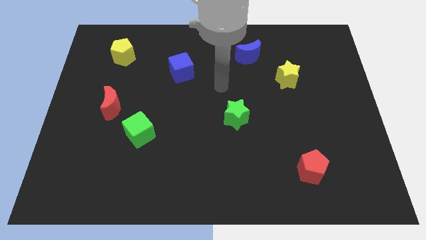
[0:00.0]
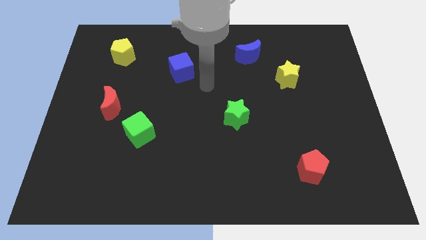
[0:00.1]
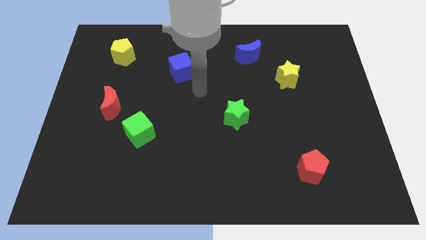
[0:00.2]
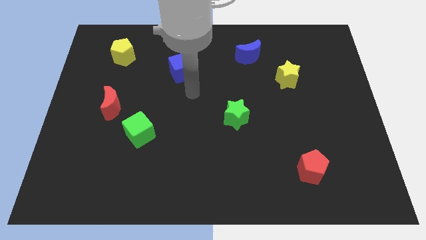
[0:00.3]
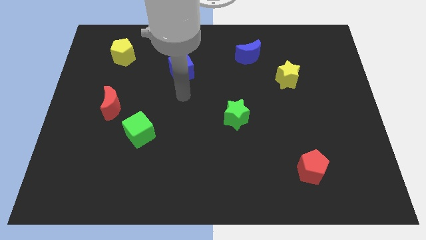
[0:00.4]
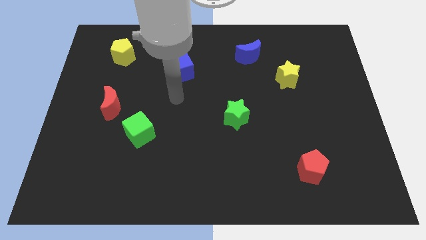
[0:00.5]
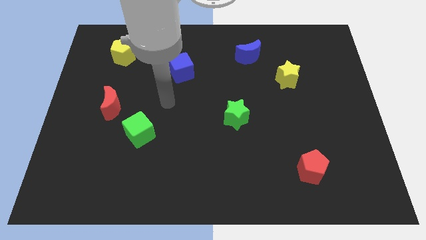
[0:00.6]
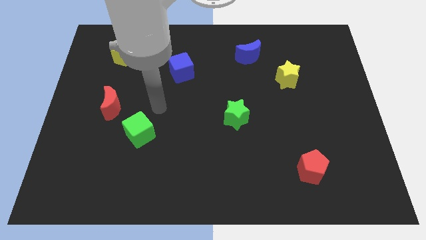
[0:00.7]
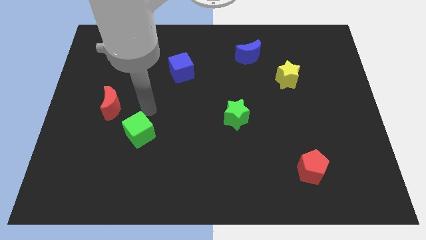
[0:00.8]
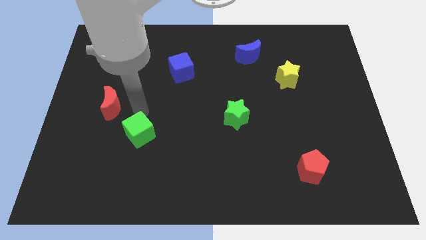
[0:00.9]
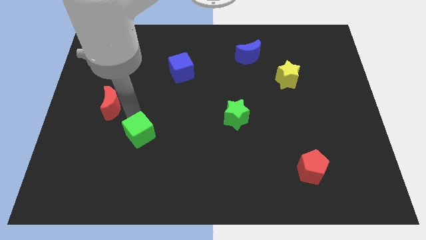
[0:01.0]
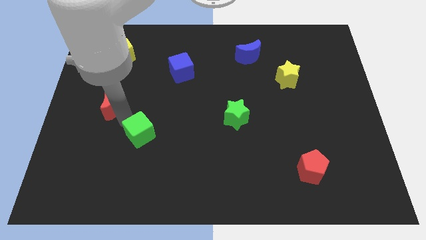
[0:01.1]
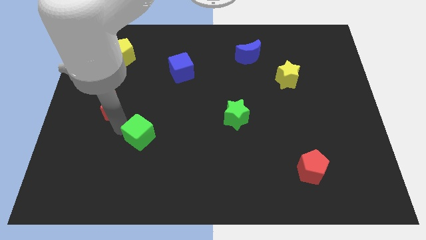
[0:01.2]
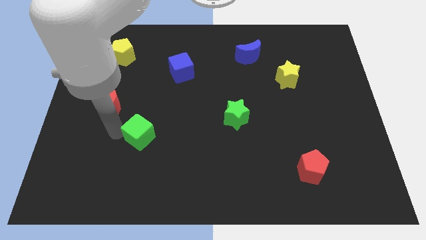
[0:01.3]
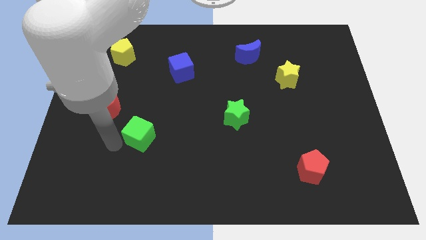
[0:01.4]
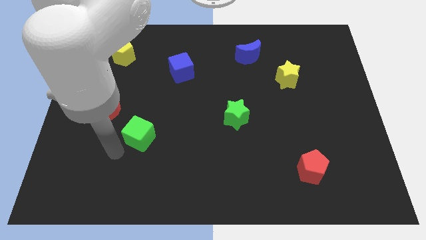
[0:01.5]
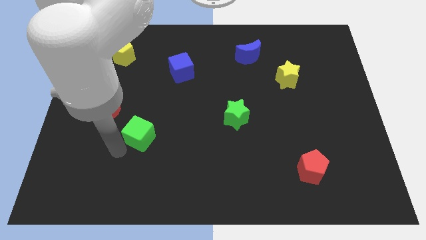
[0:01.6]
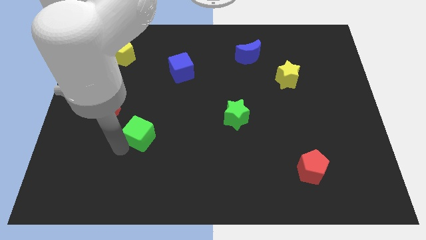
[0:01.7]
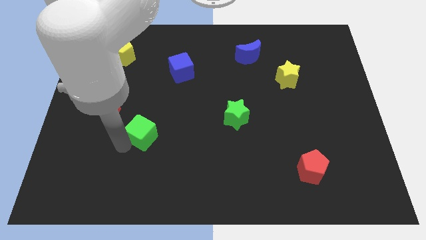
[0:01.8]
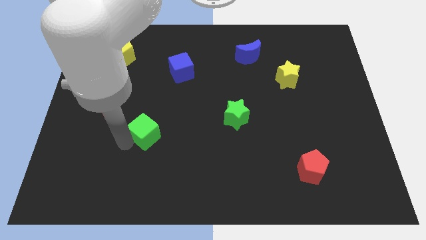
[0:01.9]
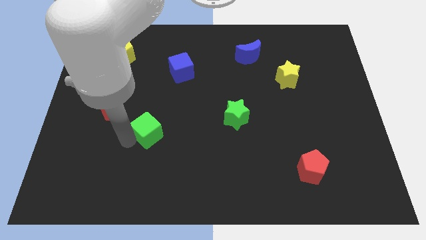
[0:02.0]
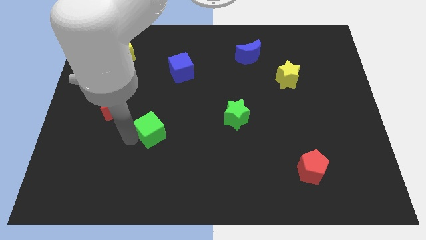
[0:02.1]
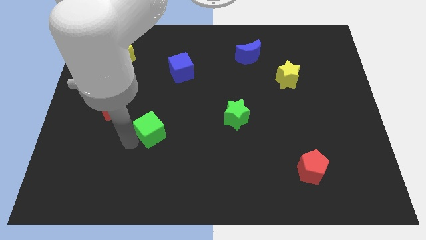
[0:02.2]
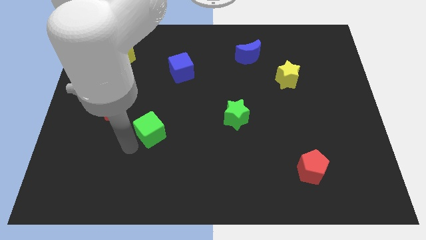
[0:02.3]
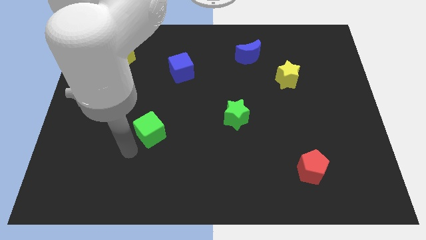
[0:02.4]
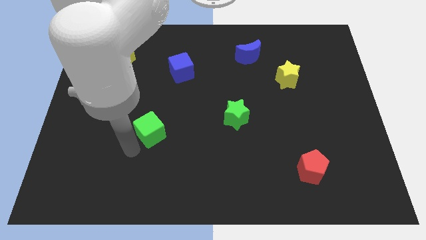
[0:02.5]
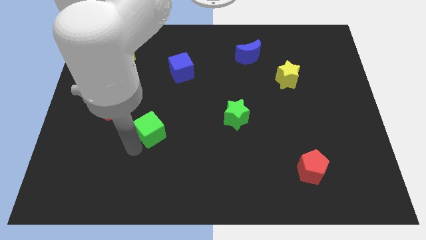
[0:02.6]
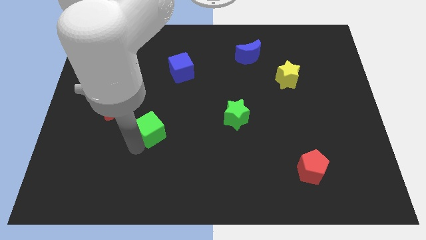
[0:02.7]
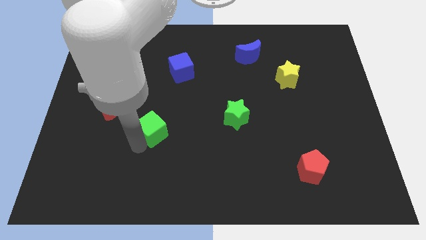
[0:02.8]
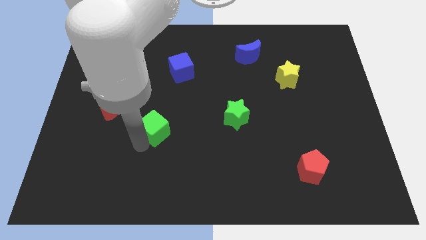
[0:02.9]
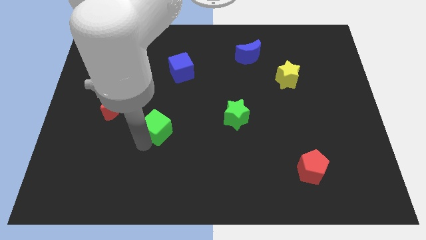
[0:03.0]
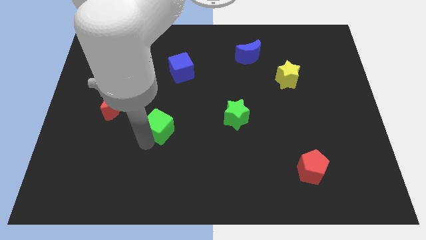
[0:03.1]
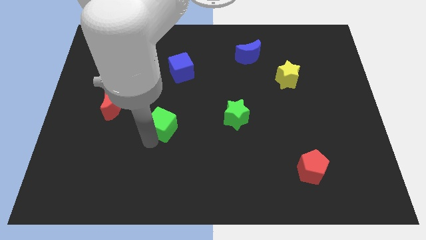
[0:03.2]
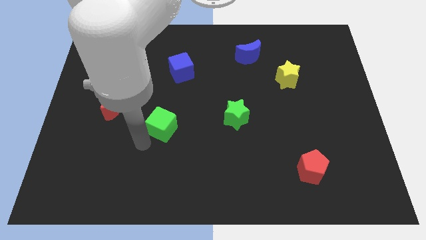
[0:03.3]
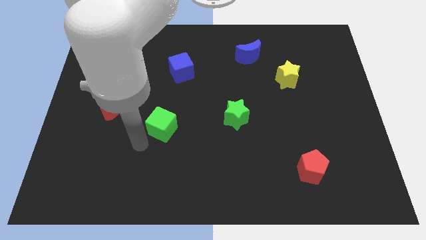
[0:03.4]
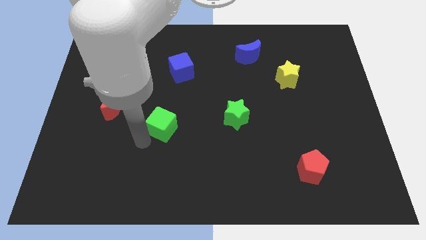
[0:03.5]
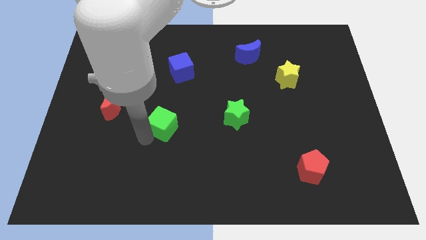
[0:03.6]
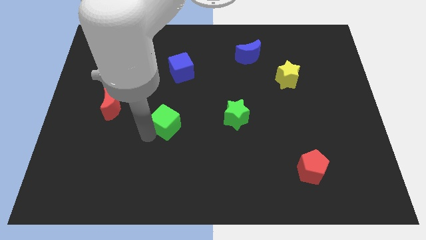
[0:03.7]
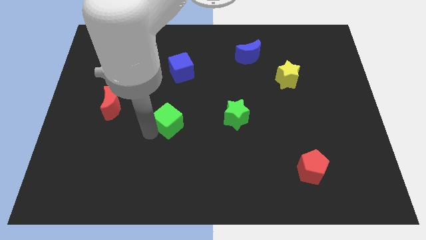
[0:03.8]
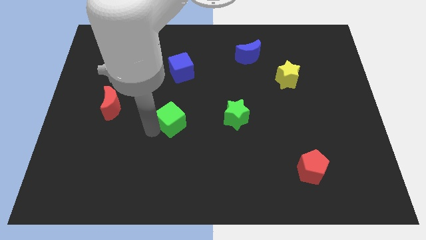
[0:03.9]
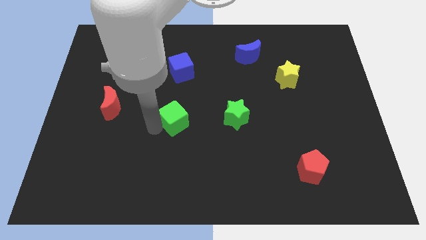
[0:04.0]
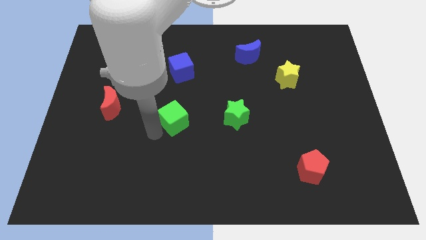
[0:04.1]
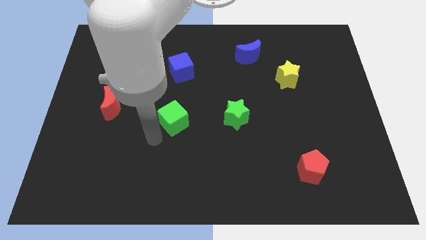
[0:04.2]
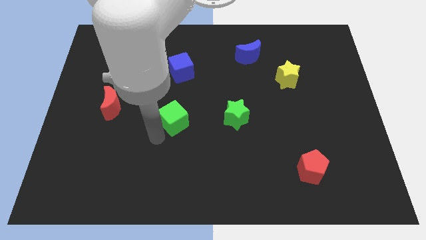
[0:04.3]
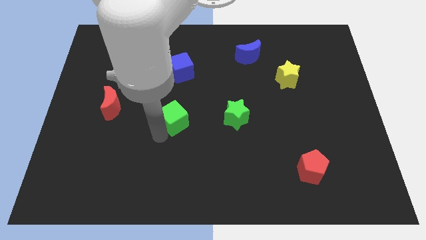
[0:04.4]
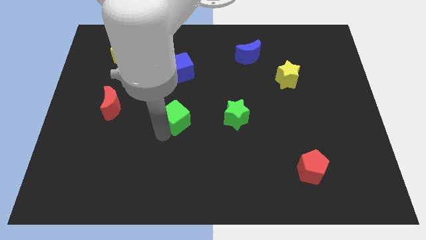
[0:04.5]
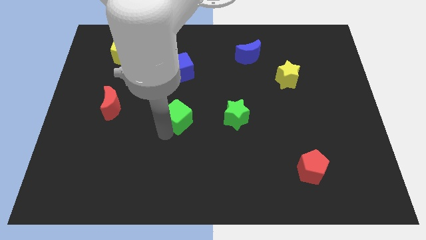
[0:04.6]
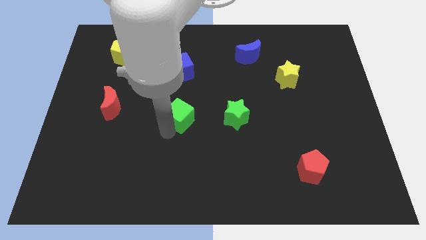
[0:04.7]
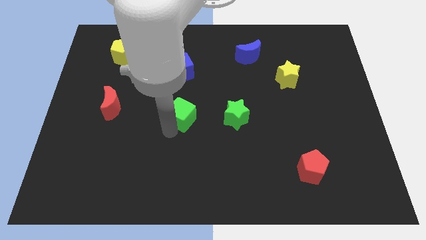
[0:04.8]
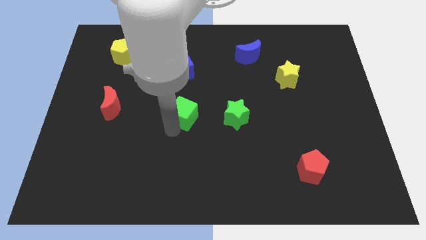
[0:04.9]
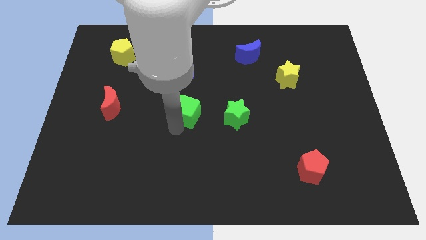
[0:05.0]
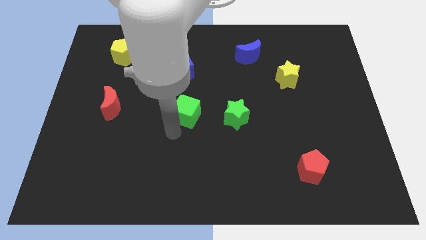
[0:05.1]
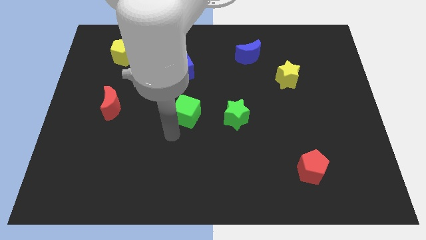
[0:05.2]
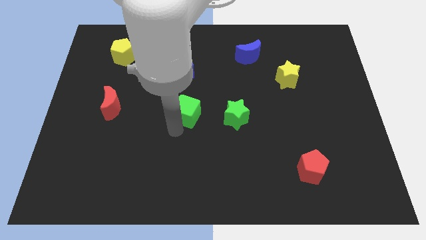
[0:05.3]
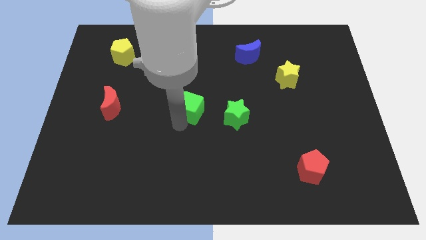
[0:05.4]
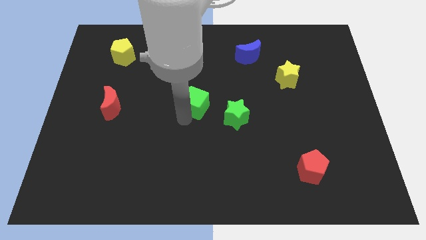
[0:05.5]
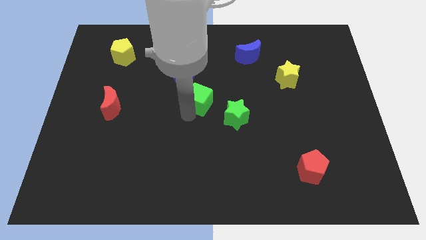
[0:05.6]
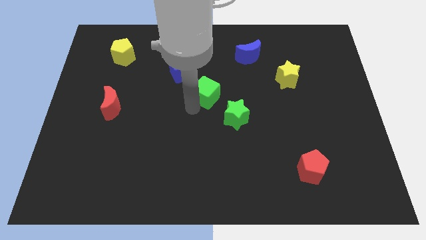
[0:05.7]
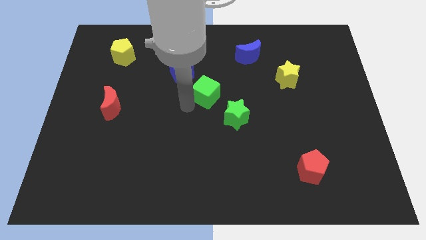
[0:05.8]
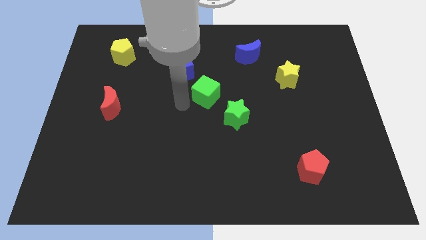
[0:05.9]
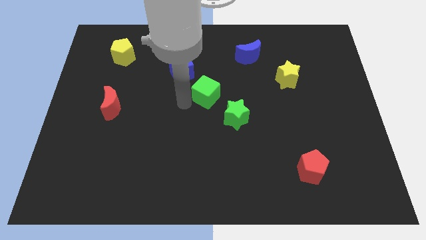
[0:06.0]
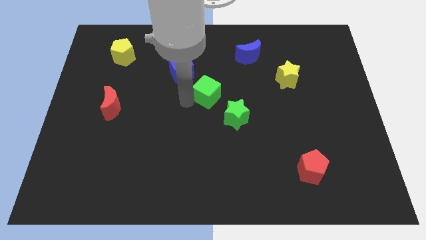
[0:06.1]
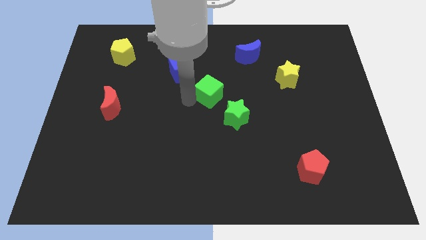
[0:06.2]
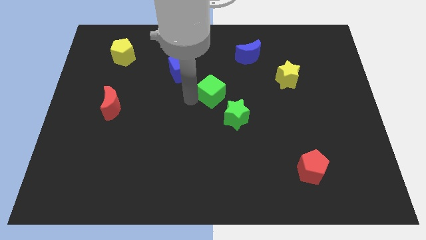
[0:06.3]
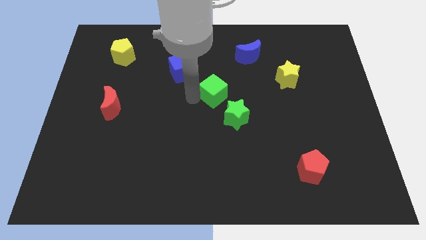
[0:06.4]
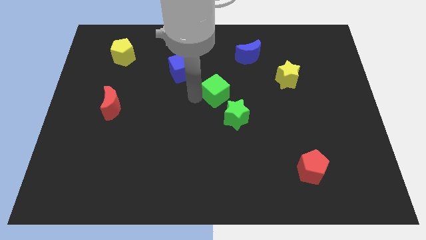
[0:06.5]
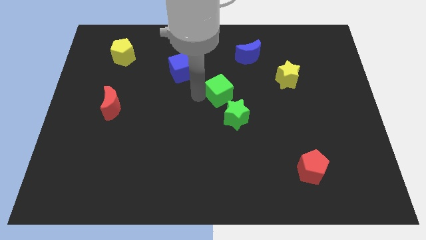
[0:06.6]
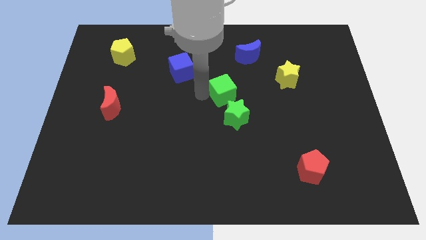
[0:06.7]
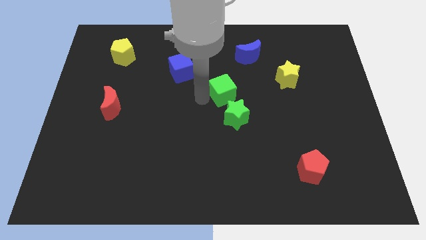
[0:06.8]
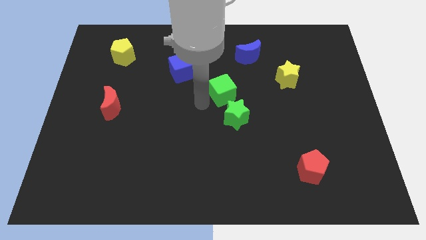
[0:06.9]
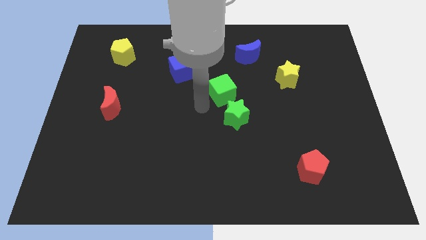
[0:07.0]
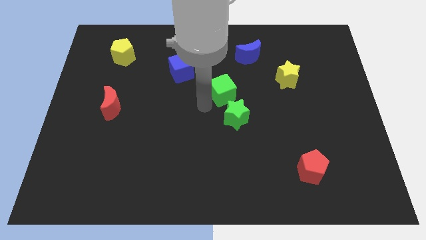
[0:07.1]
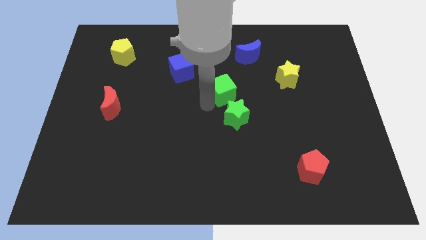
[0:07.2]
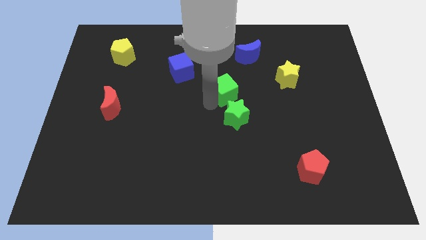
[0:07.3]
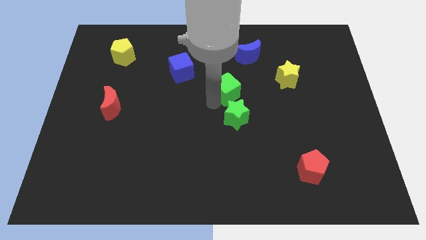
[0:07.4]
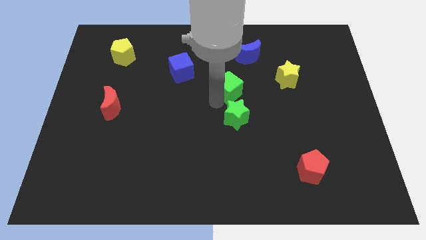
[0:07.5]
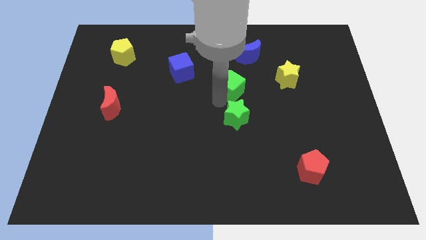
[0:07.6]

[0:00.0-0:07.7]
move the green cube just left of the yellow star
